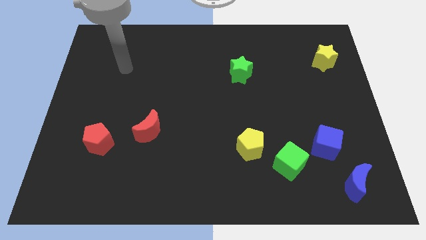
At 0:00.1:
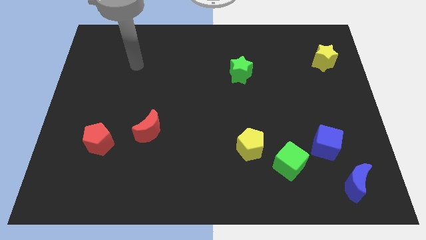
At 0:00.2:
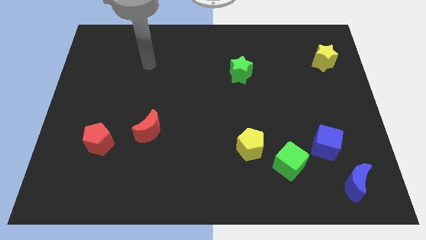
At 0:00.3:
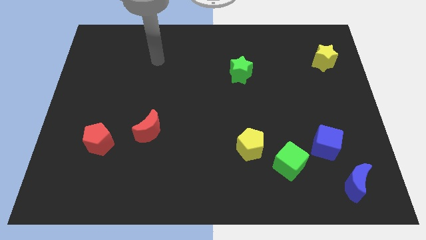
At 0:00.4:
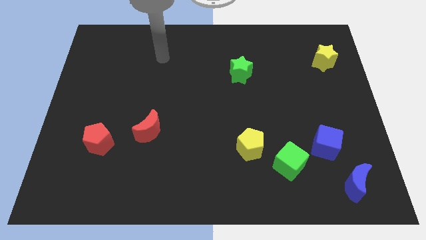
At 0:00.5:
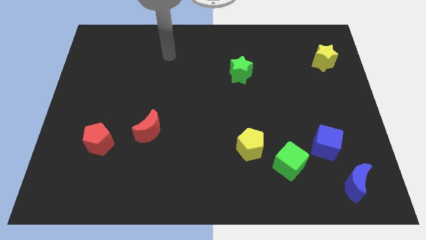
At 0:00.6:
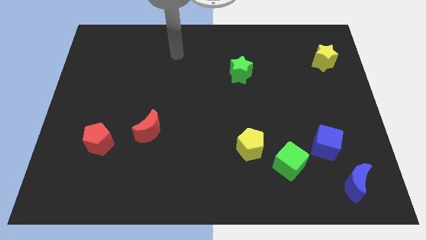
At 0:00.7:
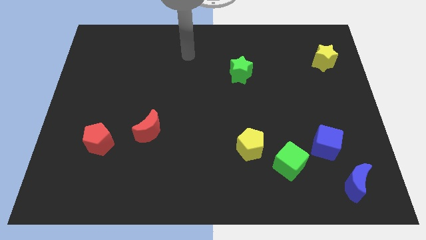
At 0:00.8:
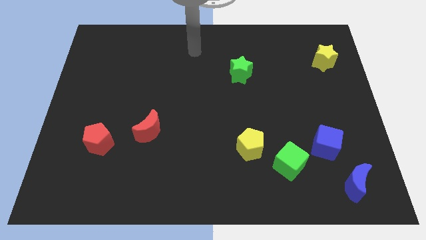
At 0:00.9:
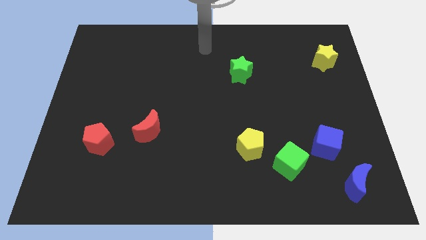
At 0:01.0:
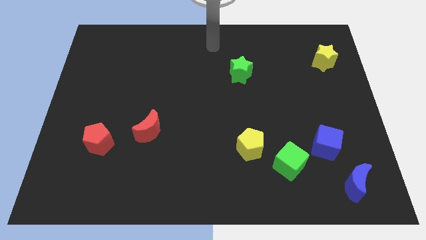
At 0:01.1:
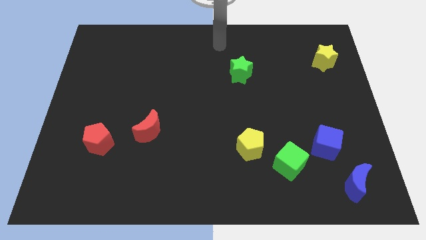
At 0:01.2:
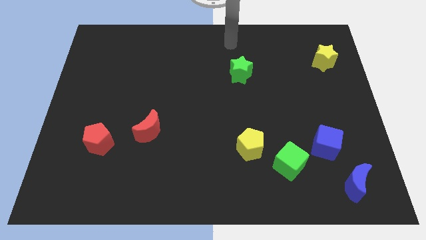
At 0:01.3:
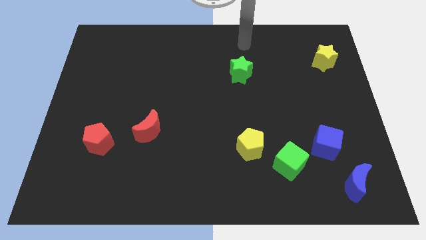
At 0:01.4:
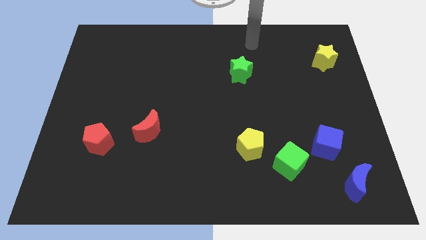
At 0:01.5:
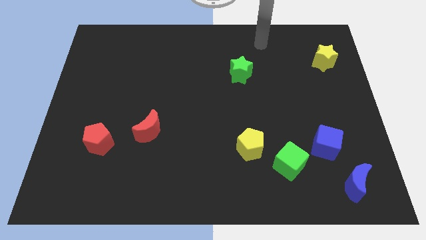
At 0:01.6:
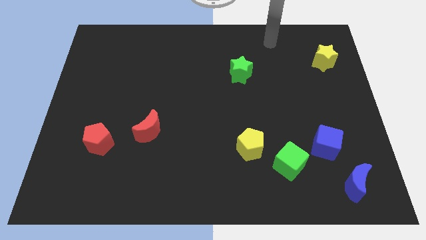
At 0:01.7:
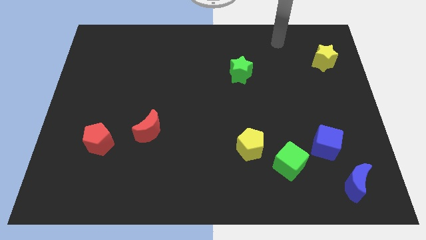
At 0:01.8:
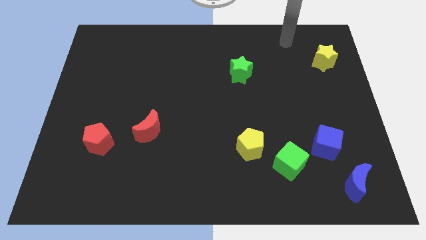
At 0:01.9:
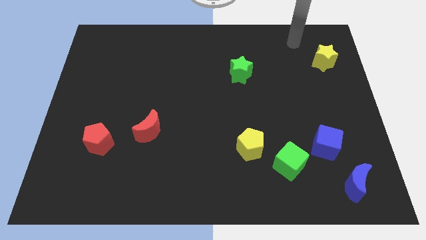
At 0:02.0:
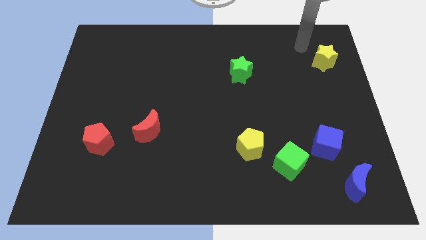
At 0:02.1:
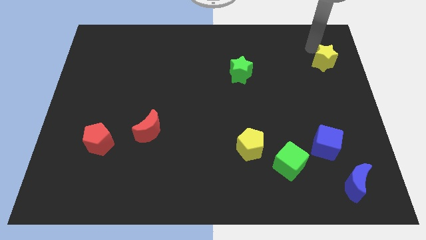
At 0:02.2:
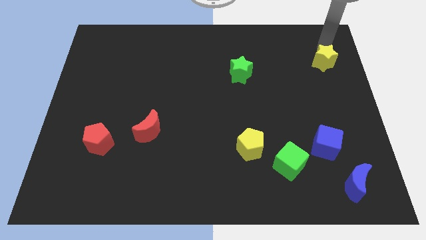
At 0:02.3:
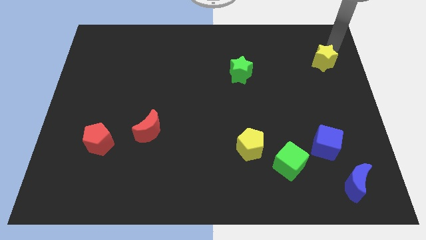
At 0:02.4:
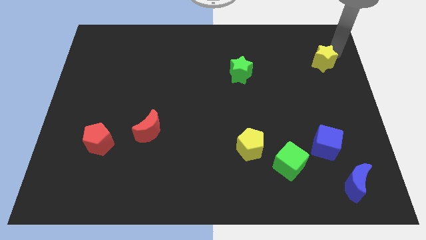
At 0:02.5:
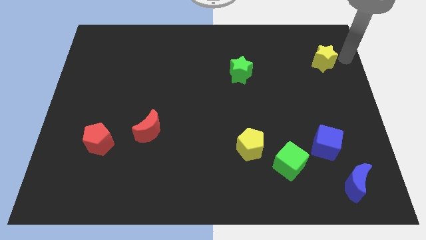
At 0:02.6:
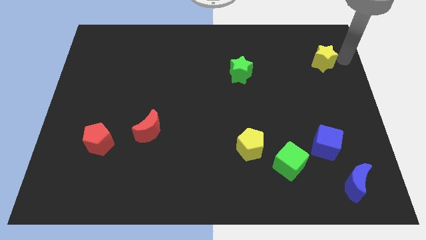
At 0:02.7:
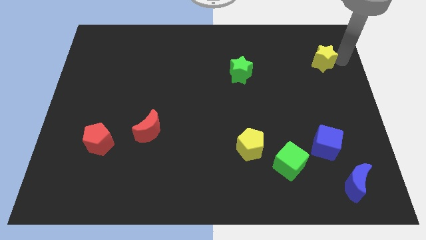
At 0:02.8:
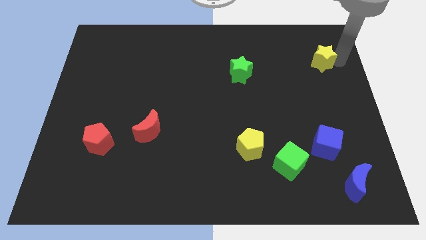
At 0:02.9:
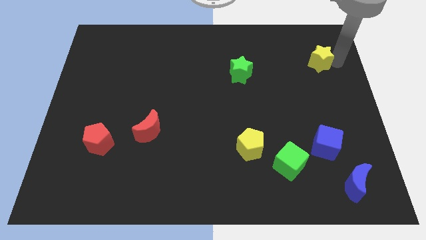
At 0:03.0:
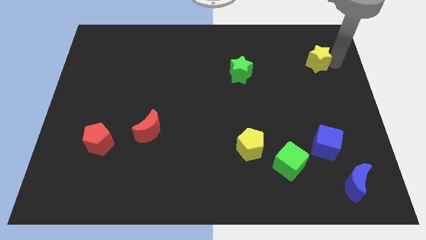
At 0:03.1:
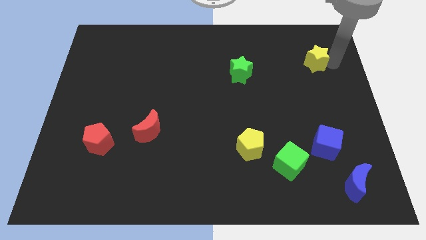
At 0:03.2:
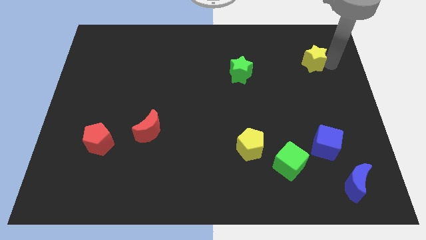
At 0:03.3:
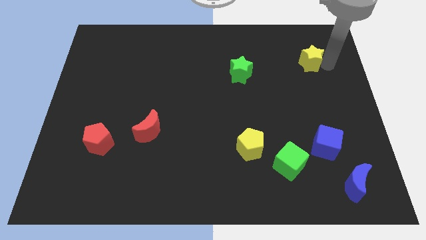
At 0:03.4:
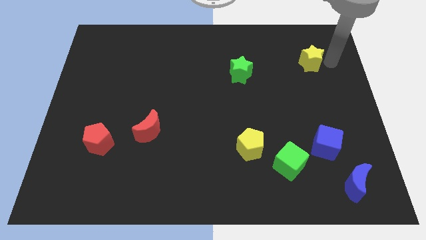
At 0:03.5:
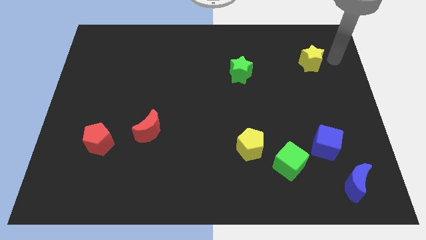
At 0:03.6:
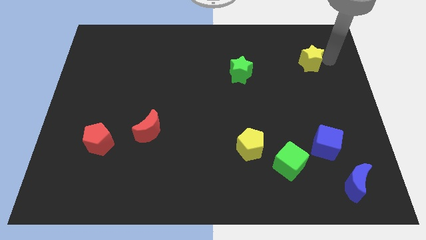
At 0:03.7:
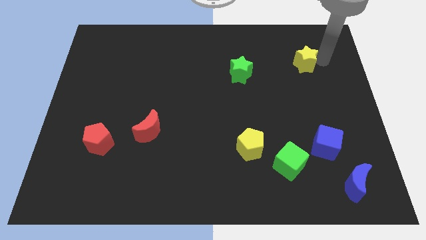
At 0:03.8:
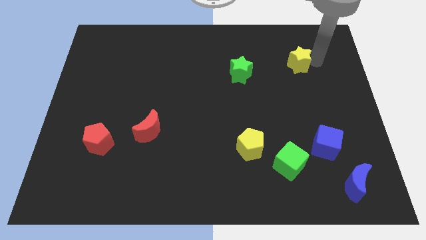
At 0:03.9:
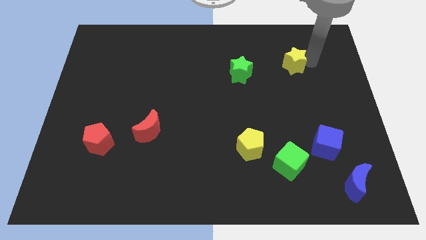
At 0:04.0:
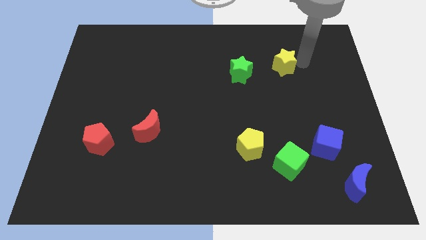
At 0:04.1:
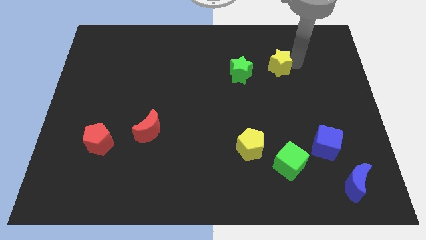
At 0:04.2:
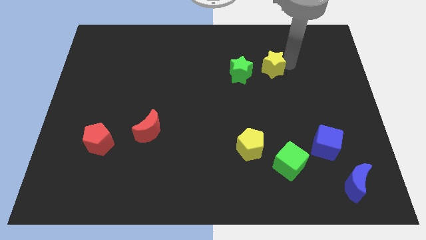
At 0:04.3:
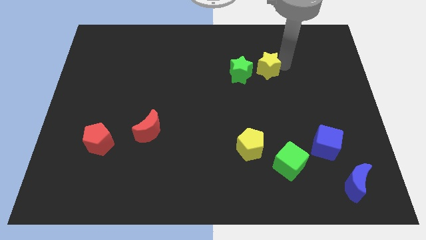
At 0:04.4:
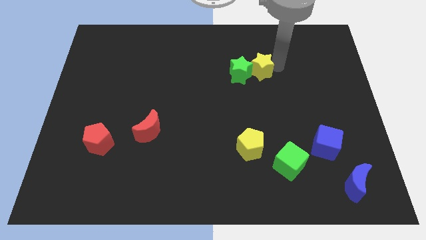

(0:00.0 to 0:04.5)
slide the yellow star next to the green star

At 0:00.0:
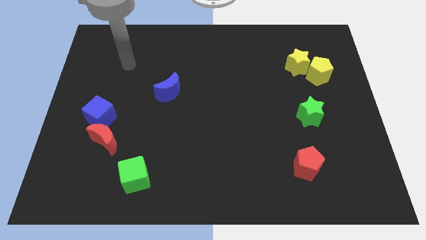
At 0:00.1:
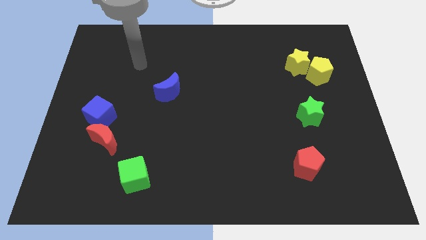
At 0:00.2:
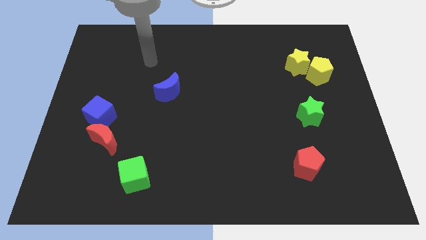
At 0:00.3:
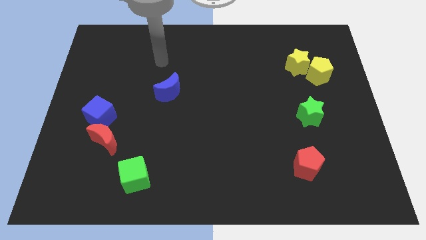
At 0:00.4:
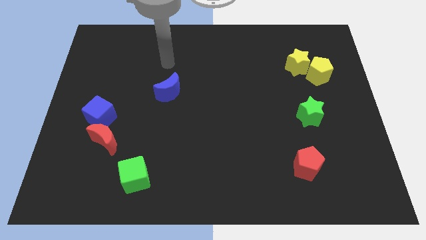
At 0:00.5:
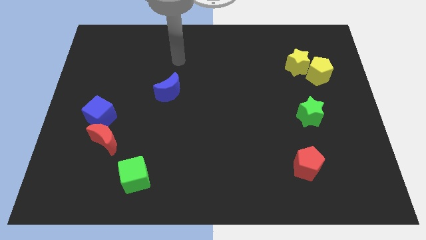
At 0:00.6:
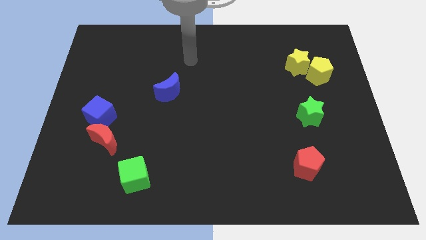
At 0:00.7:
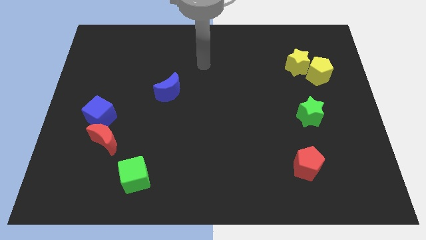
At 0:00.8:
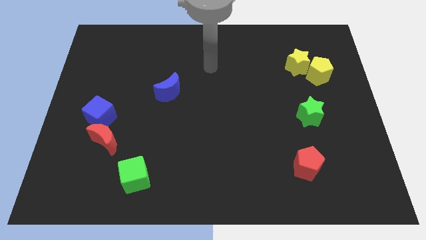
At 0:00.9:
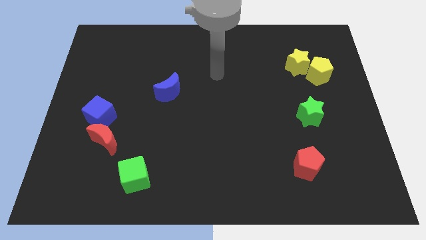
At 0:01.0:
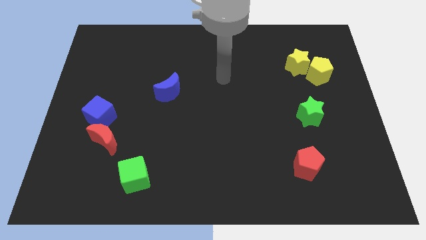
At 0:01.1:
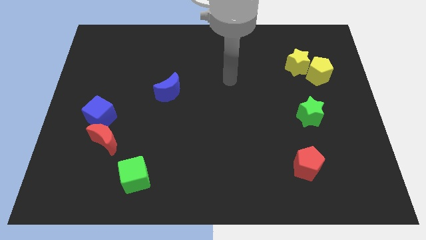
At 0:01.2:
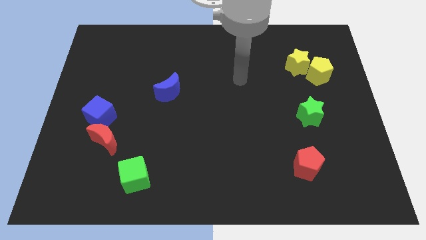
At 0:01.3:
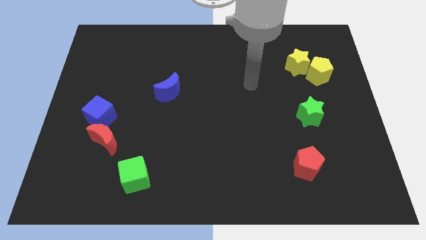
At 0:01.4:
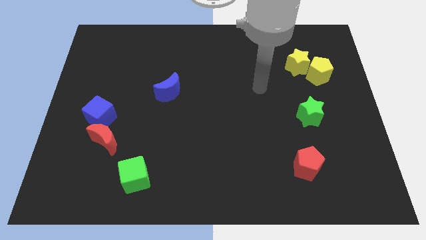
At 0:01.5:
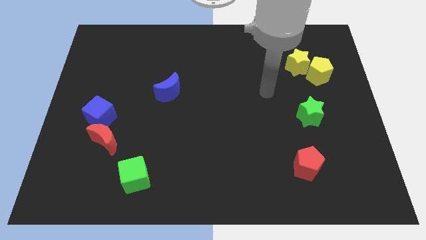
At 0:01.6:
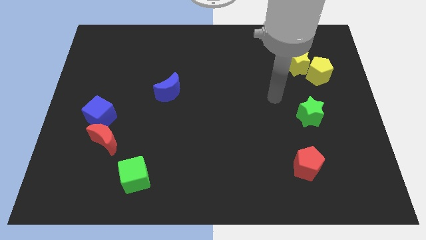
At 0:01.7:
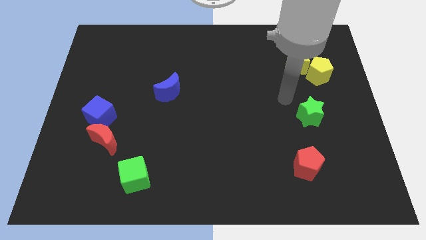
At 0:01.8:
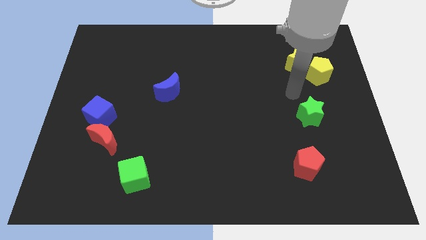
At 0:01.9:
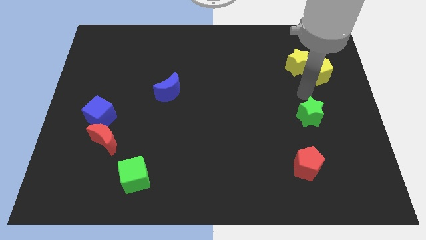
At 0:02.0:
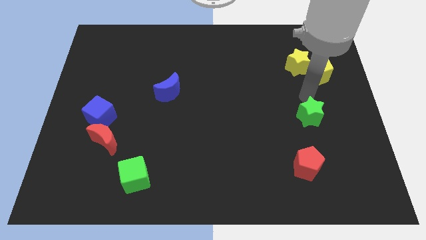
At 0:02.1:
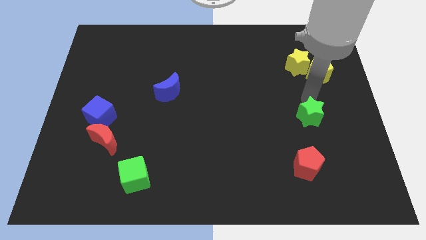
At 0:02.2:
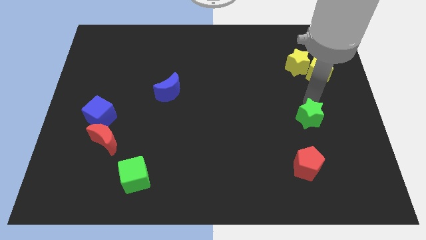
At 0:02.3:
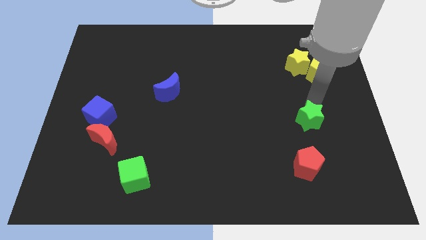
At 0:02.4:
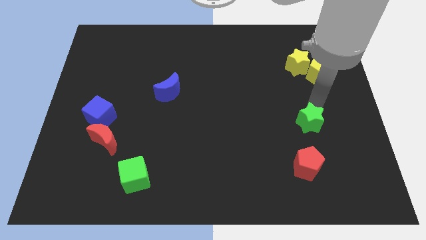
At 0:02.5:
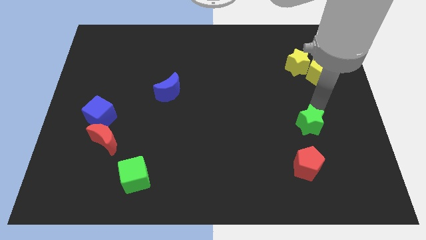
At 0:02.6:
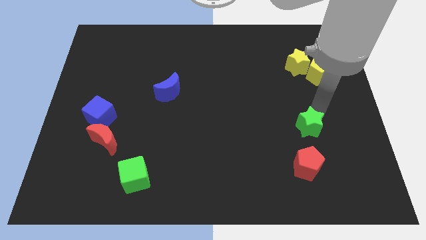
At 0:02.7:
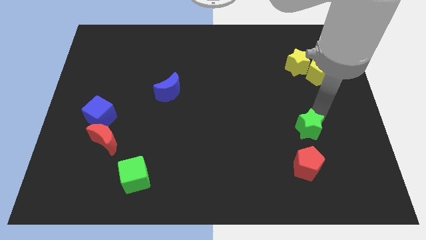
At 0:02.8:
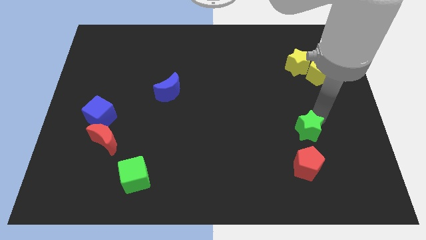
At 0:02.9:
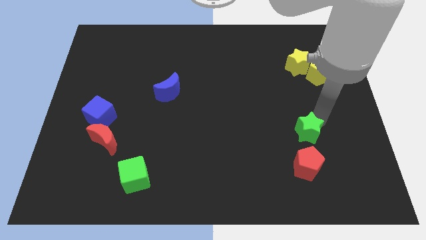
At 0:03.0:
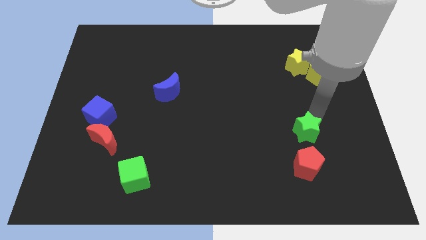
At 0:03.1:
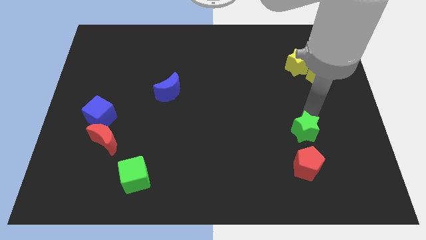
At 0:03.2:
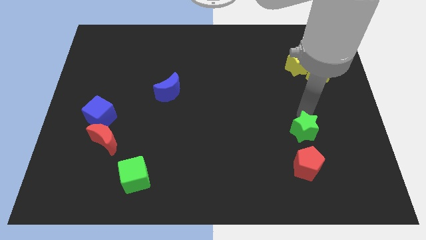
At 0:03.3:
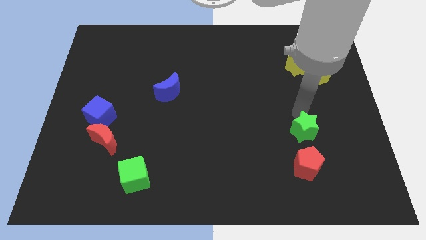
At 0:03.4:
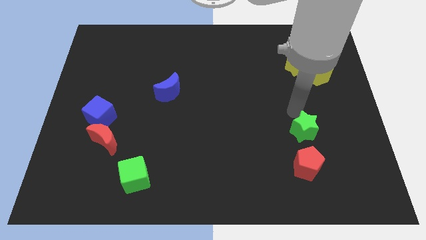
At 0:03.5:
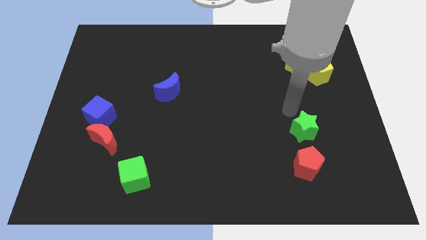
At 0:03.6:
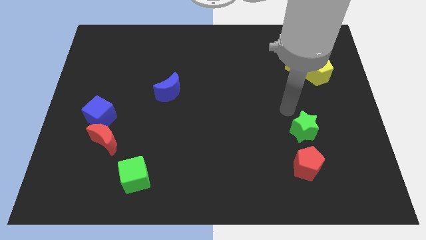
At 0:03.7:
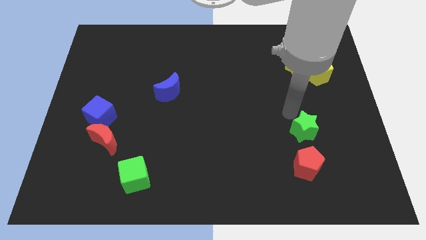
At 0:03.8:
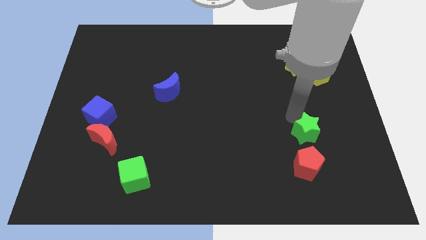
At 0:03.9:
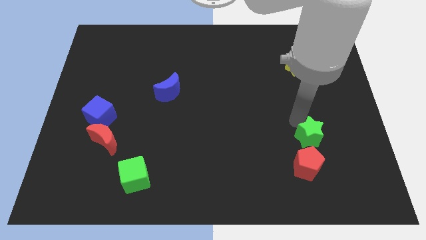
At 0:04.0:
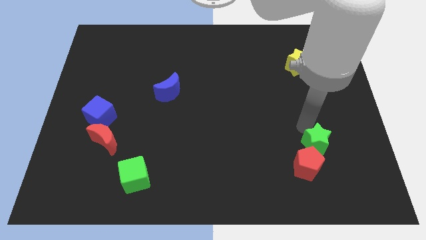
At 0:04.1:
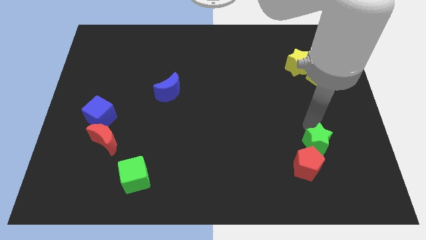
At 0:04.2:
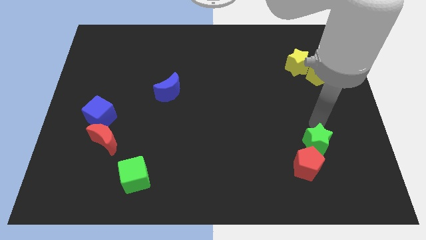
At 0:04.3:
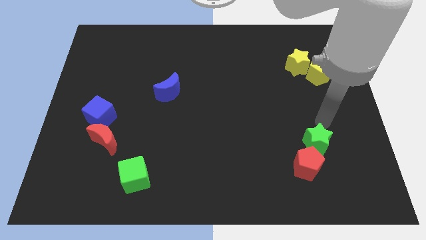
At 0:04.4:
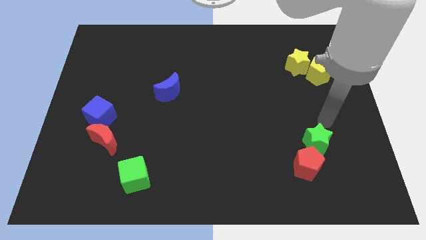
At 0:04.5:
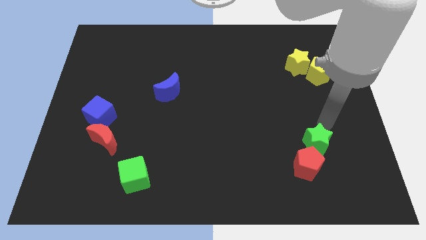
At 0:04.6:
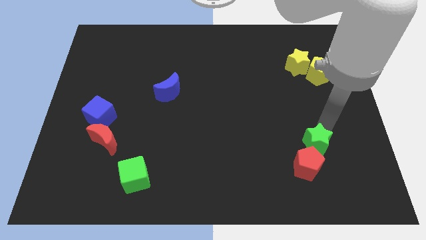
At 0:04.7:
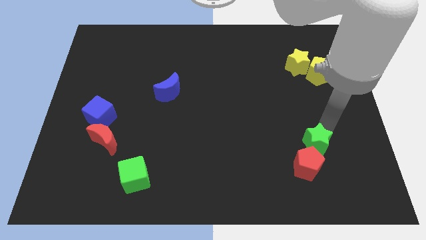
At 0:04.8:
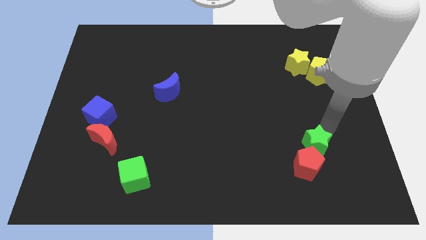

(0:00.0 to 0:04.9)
push the green star towards the red pentagon
